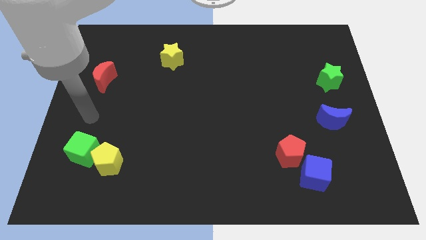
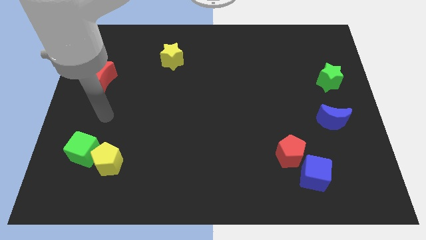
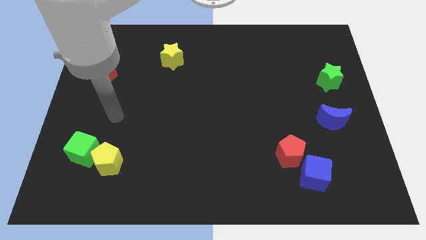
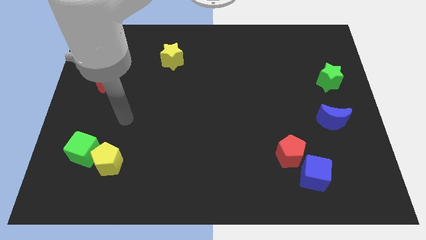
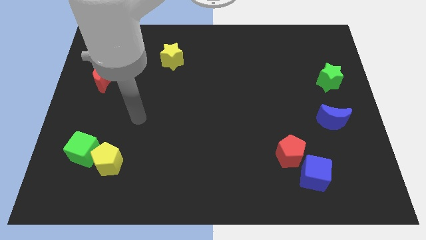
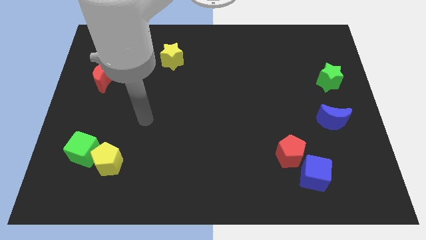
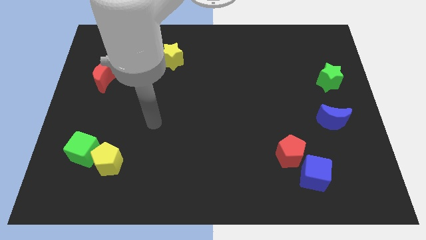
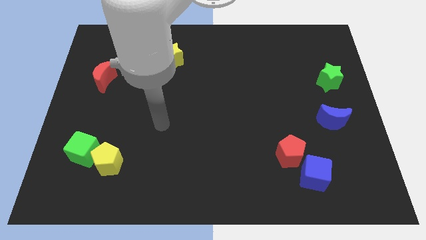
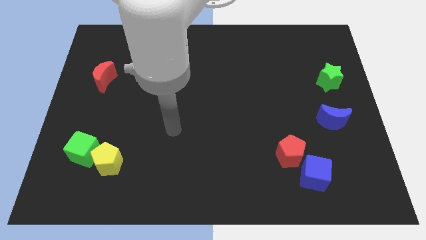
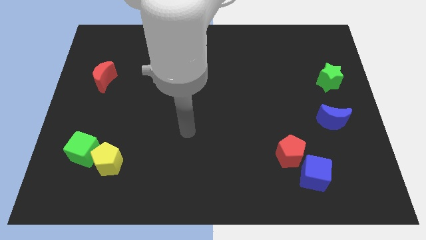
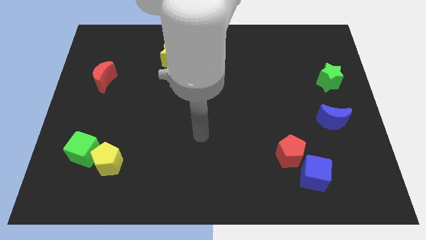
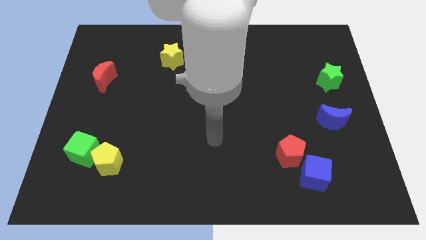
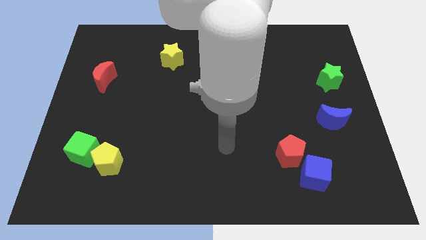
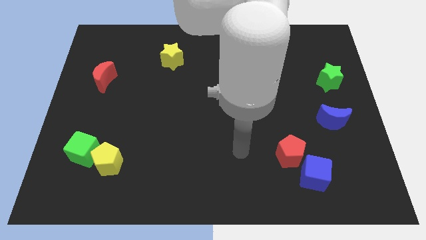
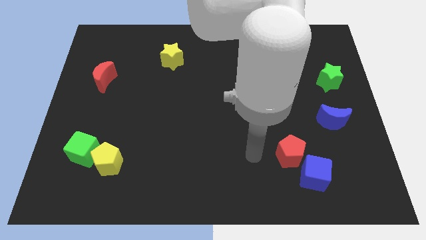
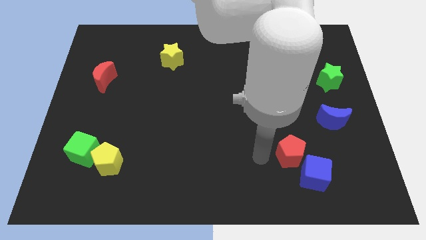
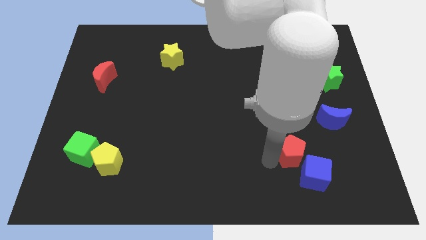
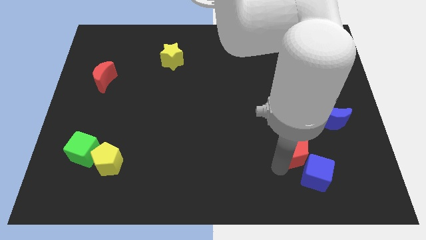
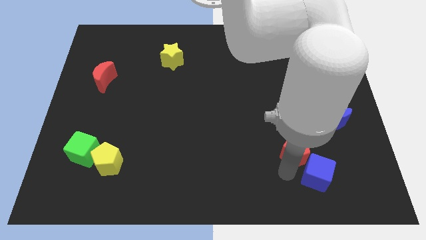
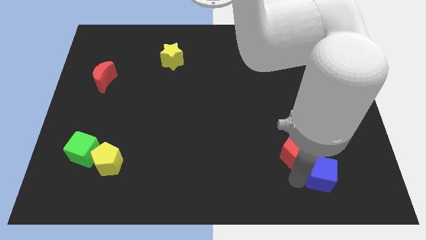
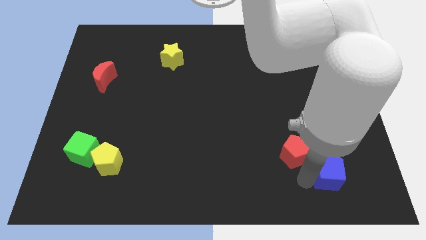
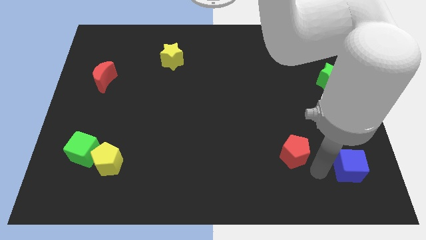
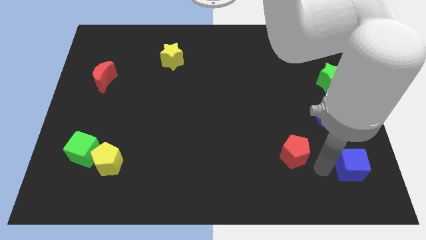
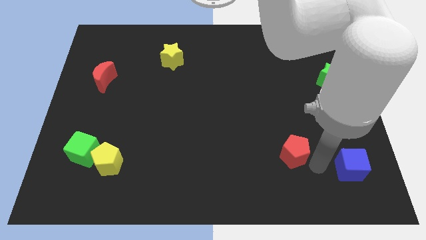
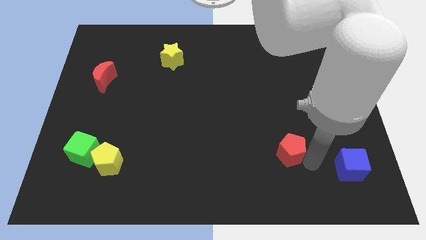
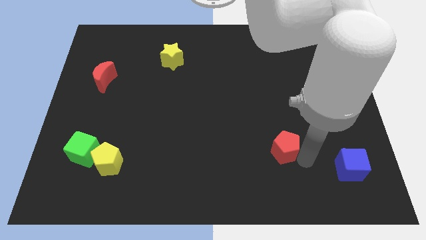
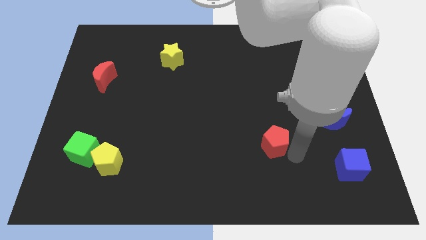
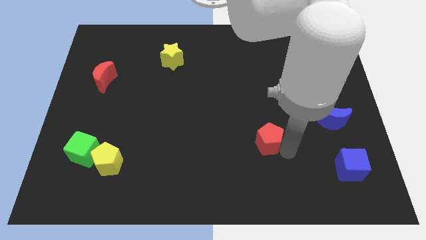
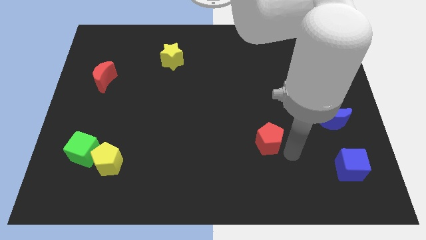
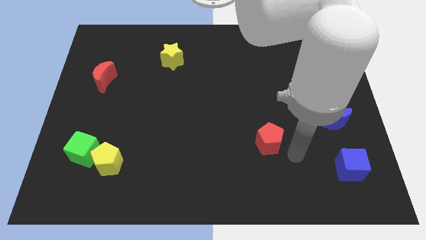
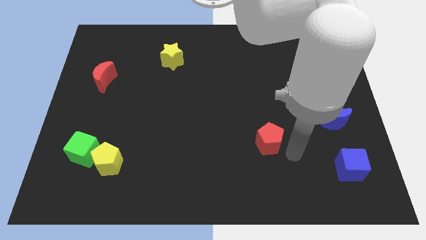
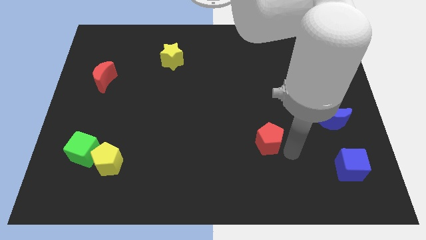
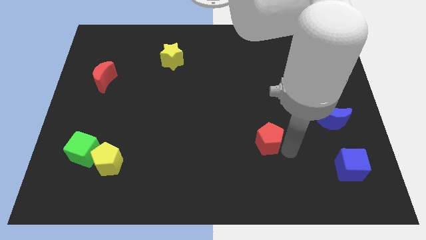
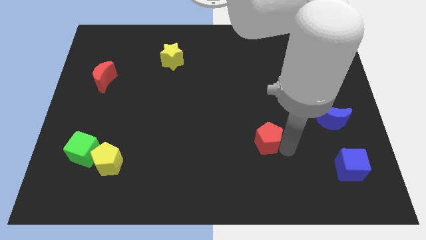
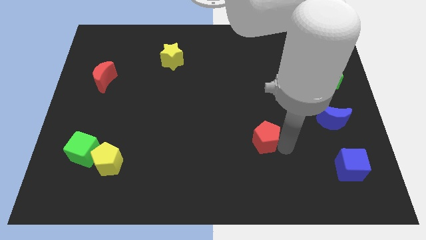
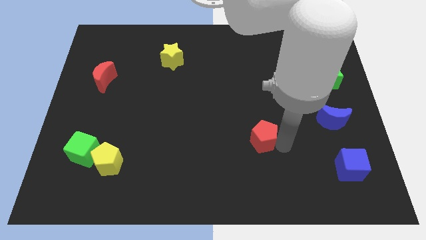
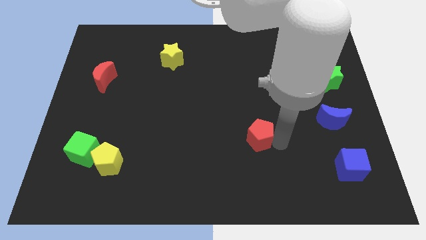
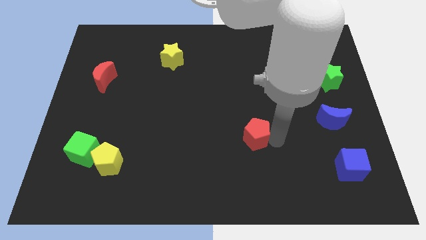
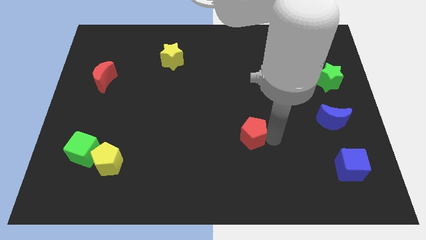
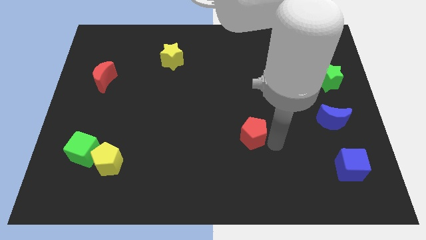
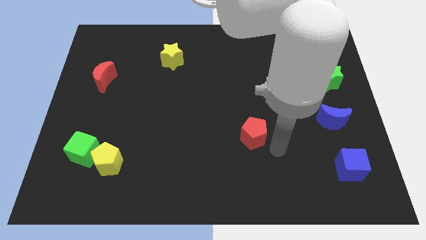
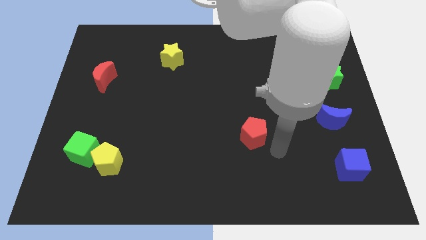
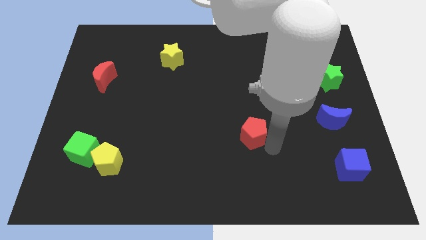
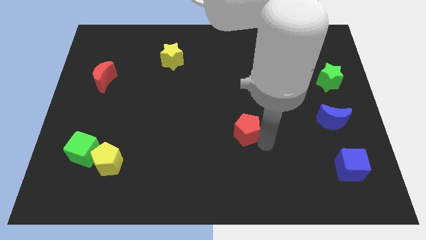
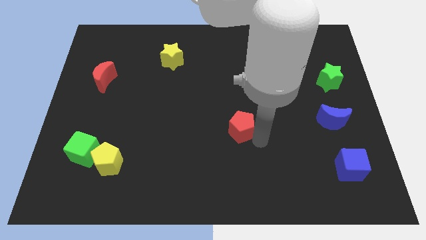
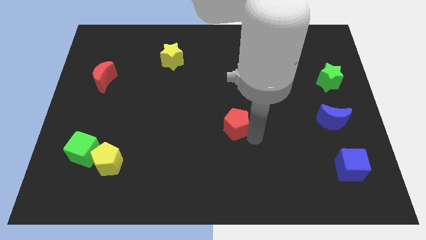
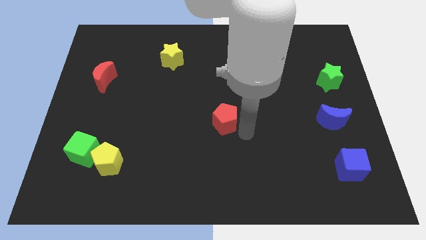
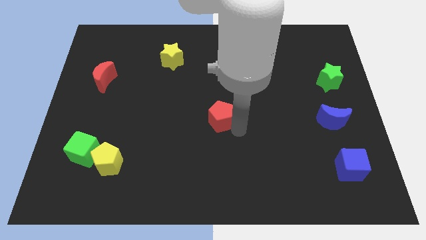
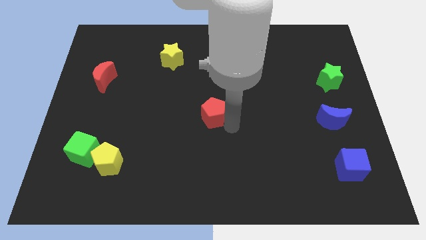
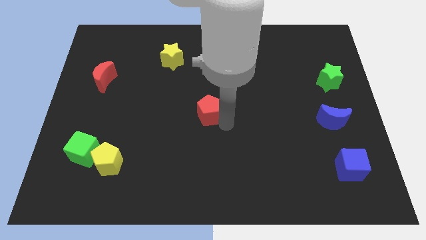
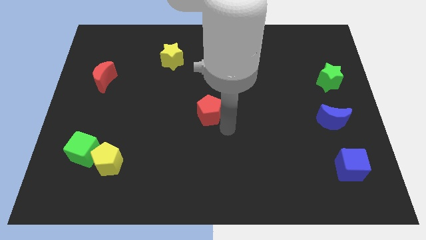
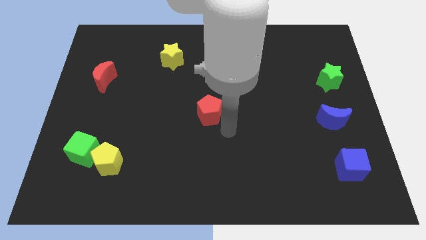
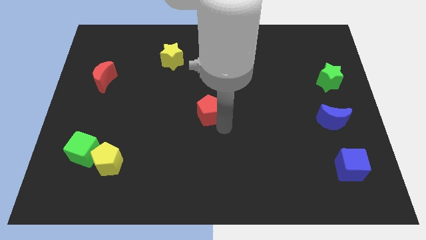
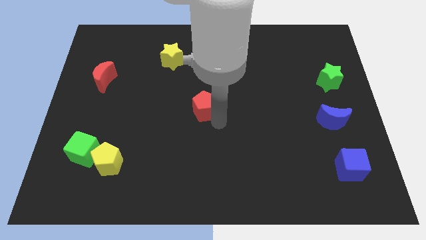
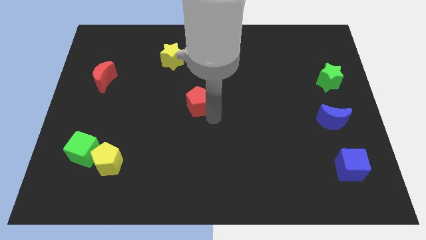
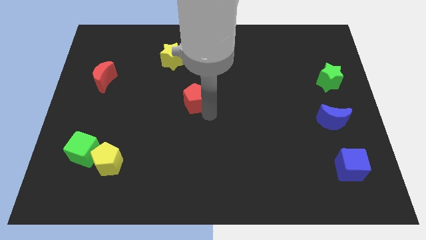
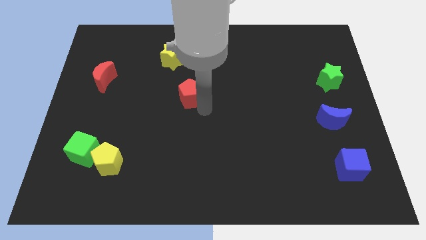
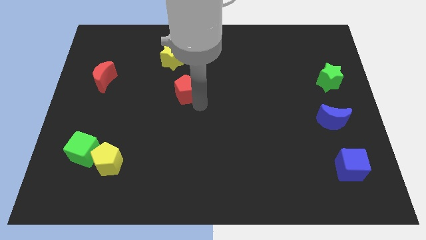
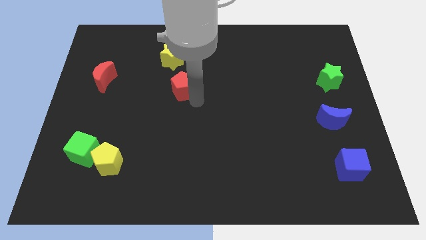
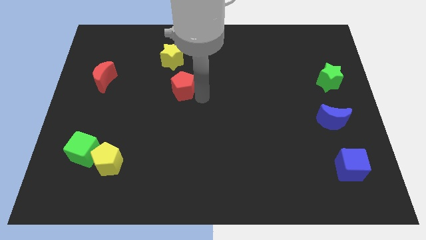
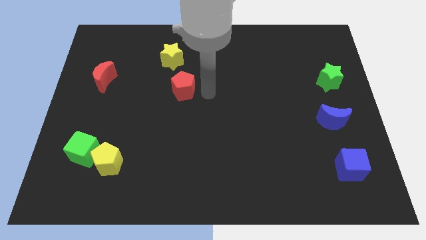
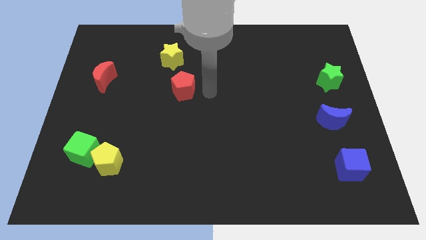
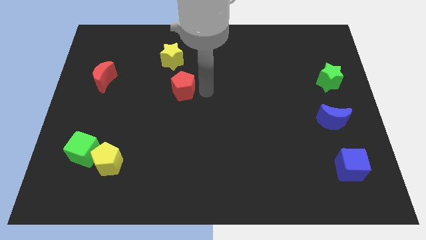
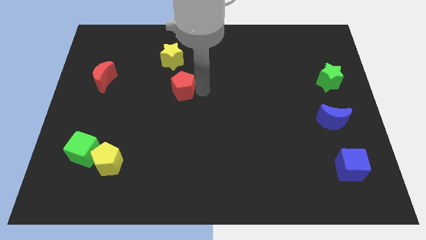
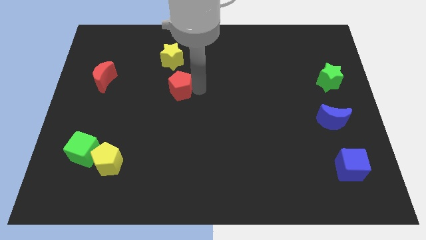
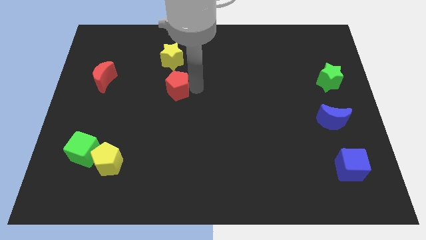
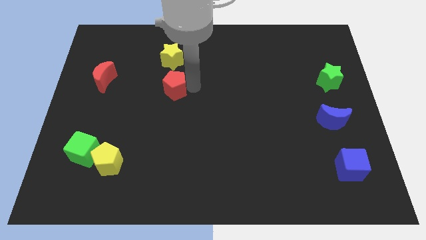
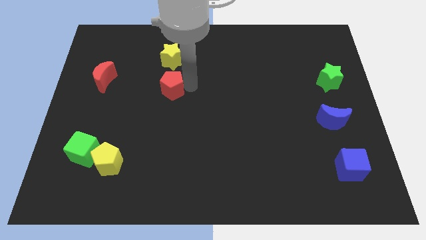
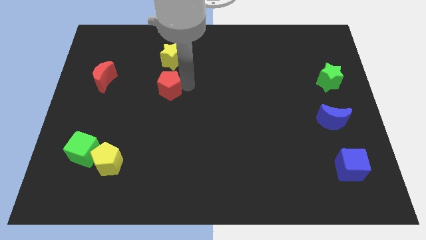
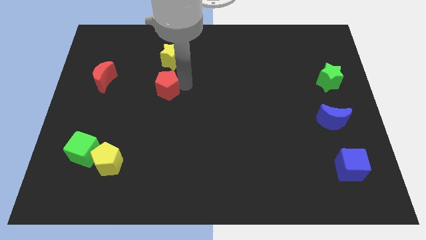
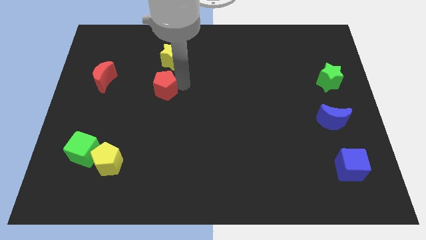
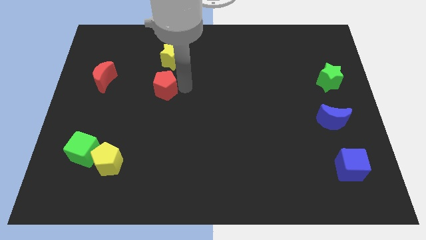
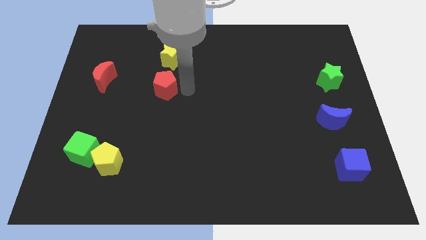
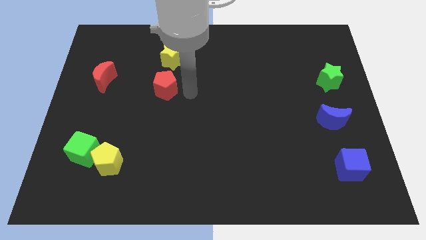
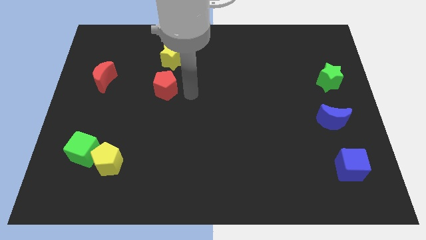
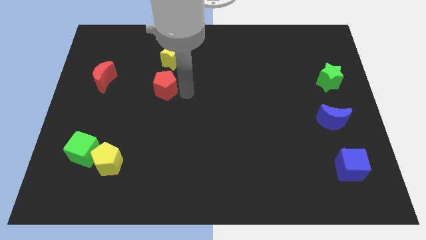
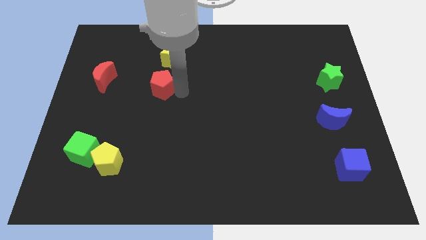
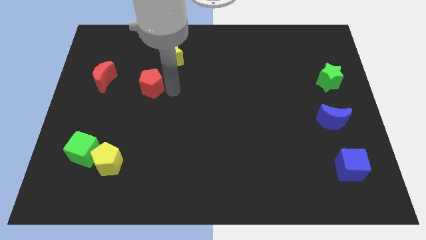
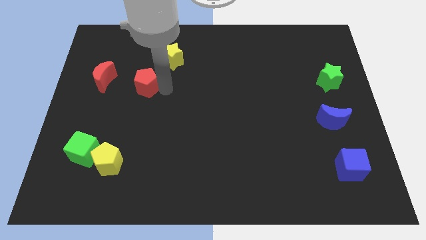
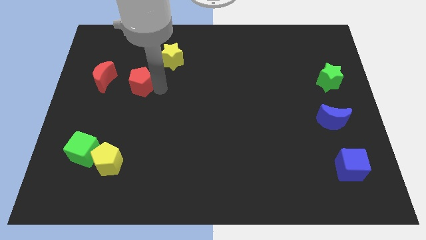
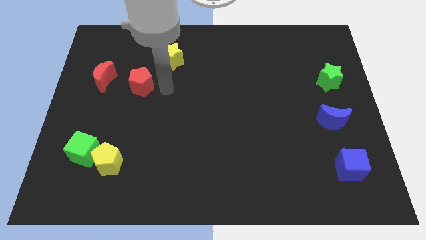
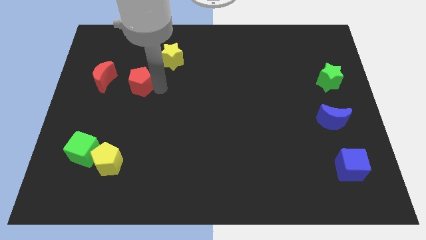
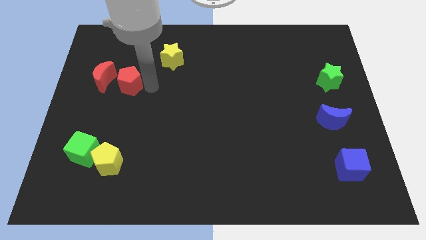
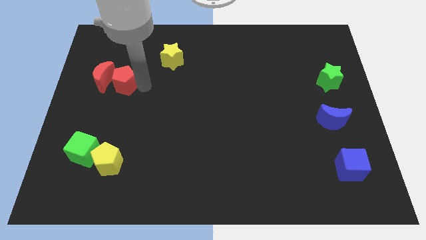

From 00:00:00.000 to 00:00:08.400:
push the red pentagon towards the red moon
